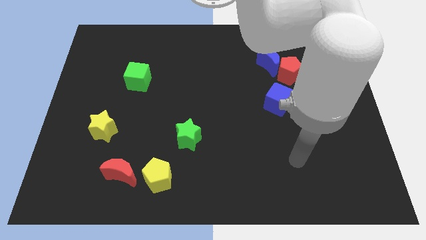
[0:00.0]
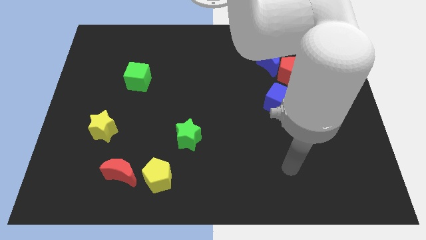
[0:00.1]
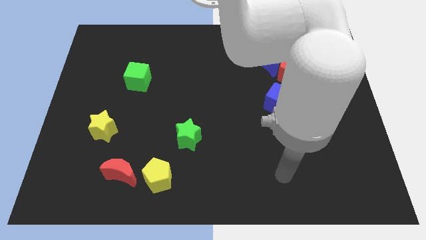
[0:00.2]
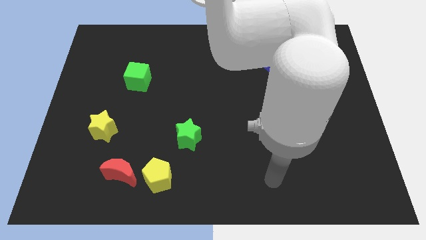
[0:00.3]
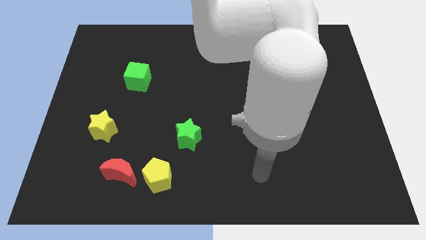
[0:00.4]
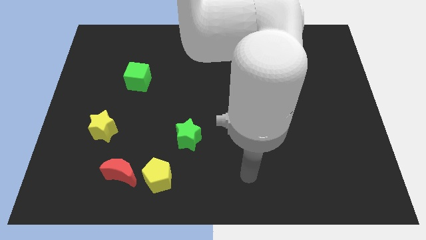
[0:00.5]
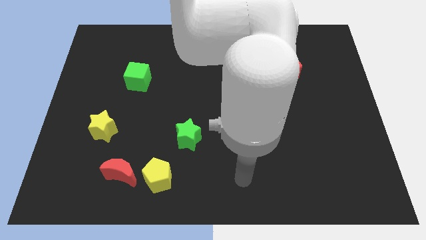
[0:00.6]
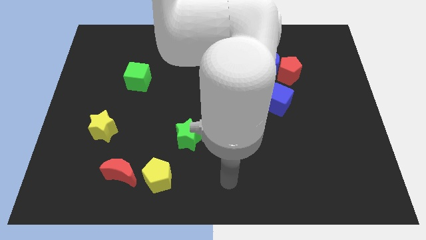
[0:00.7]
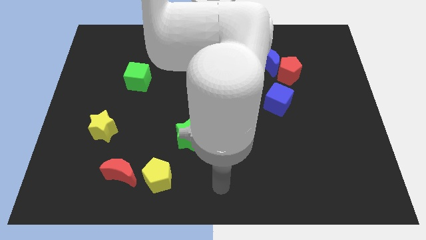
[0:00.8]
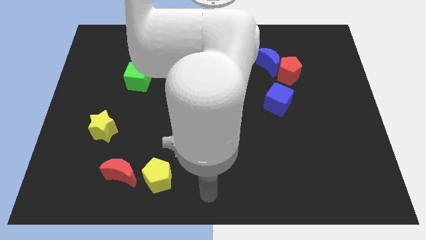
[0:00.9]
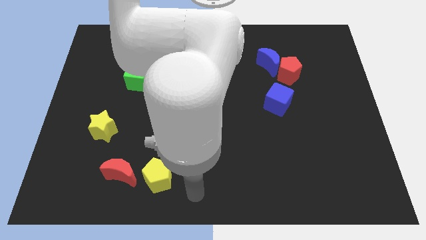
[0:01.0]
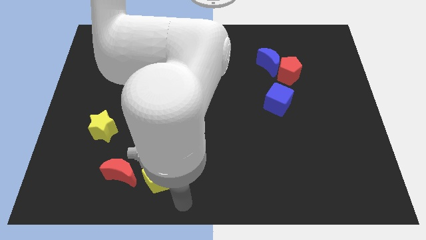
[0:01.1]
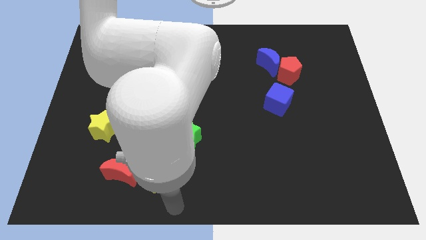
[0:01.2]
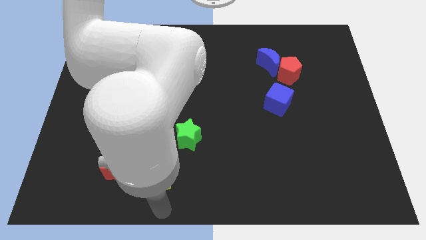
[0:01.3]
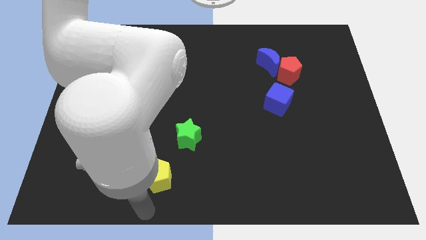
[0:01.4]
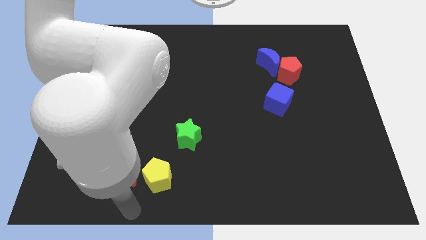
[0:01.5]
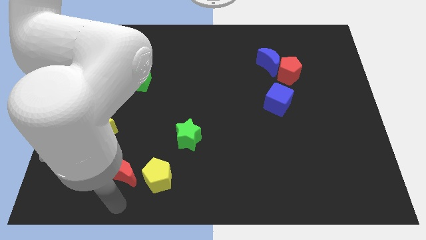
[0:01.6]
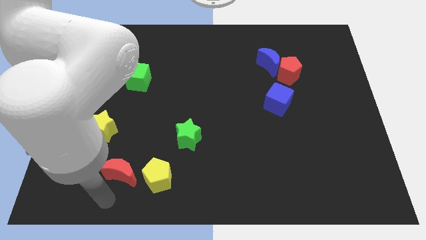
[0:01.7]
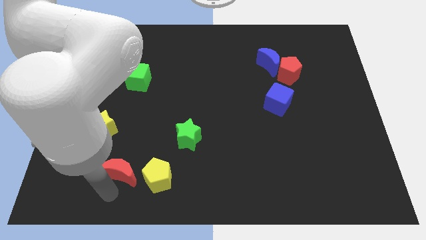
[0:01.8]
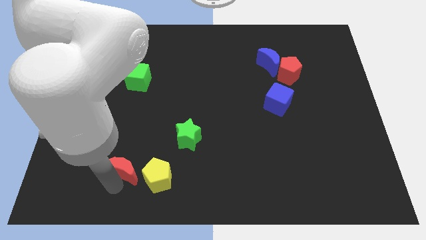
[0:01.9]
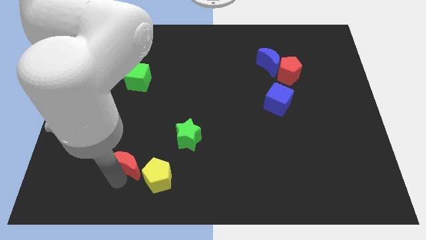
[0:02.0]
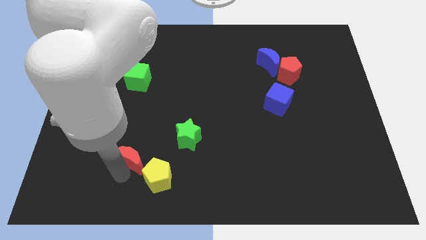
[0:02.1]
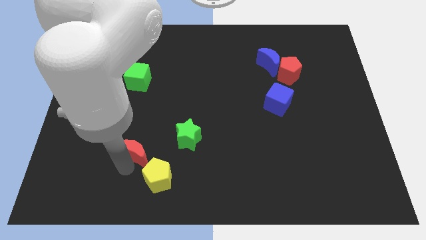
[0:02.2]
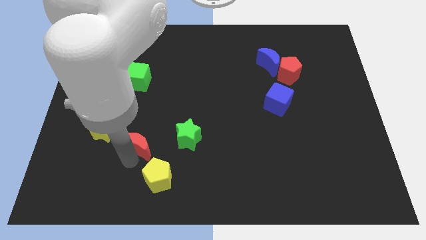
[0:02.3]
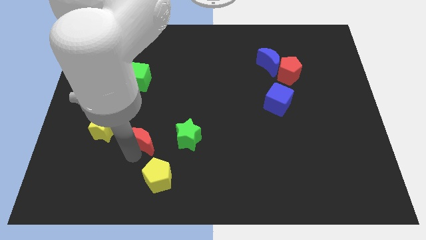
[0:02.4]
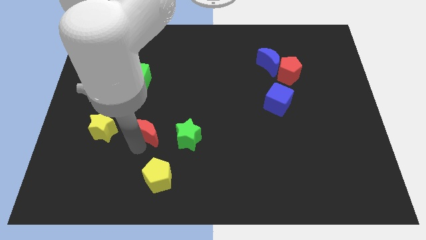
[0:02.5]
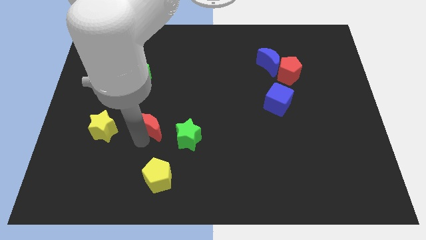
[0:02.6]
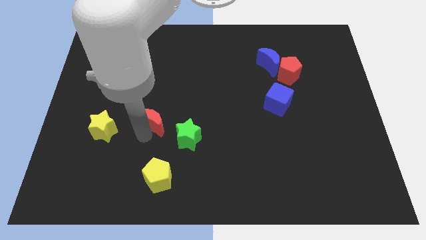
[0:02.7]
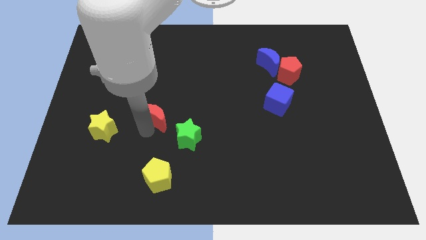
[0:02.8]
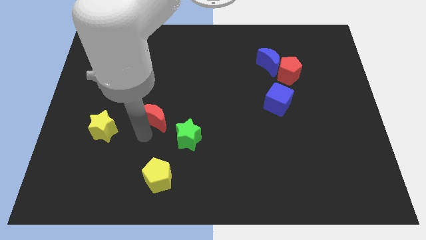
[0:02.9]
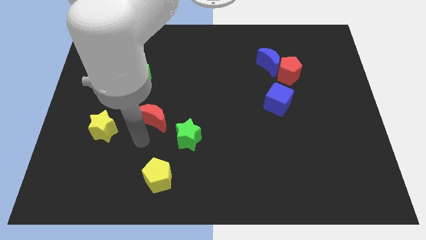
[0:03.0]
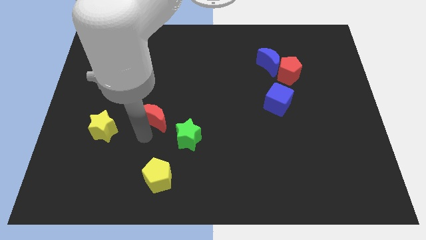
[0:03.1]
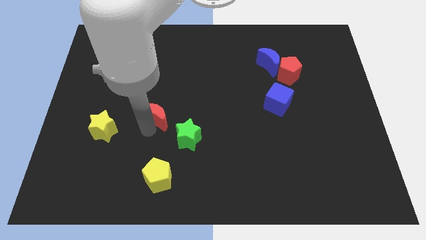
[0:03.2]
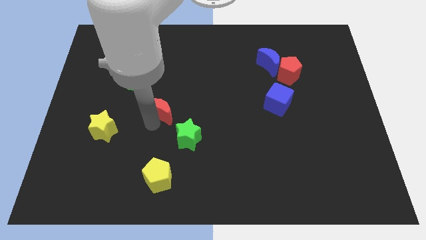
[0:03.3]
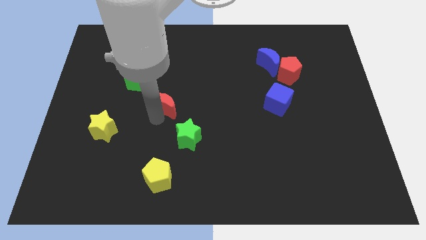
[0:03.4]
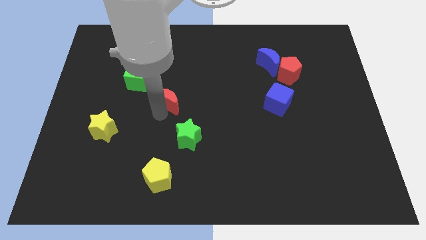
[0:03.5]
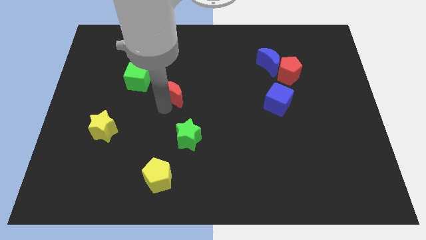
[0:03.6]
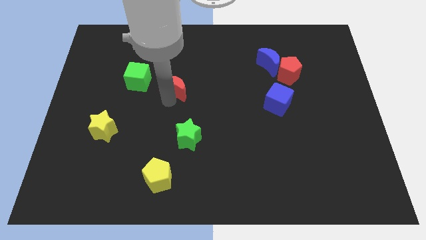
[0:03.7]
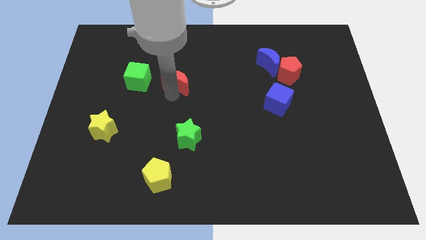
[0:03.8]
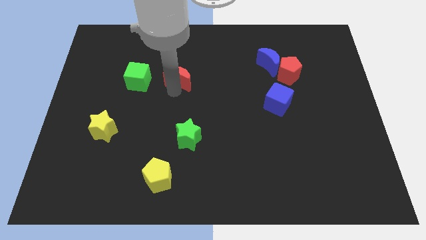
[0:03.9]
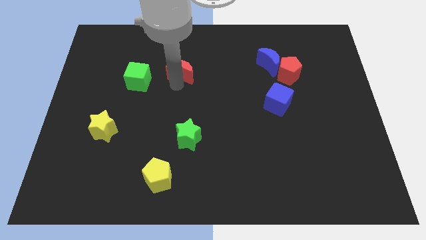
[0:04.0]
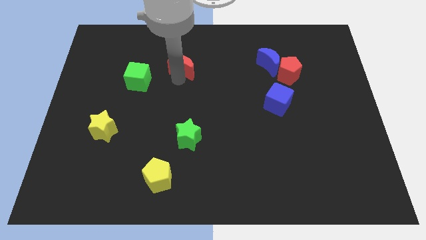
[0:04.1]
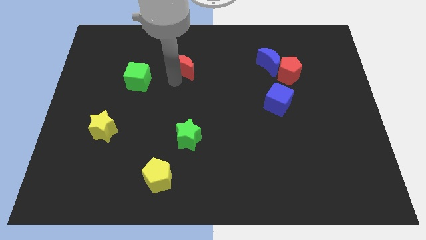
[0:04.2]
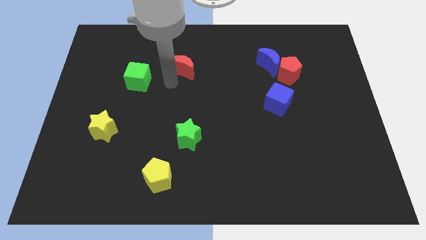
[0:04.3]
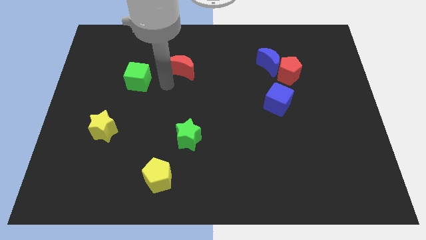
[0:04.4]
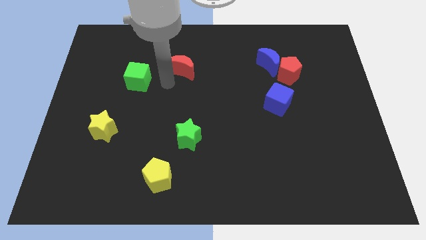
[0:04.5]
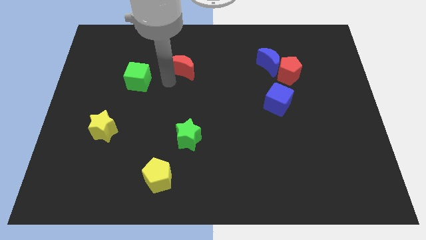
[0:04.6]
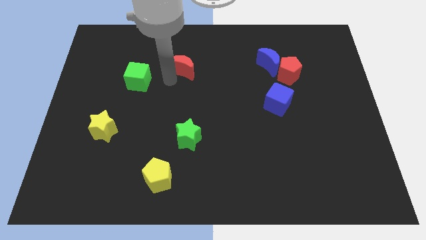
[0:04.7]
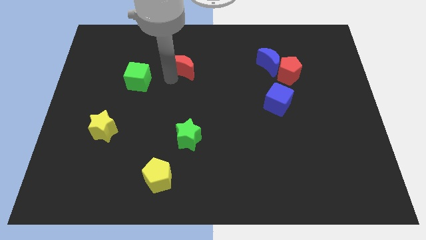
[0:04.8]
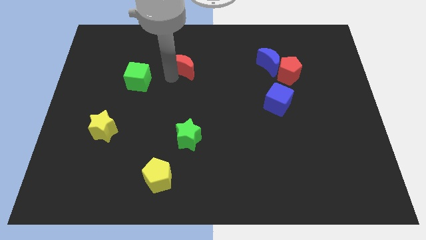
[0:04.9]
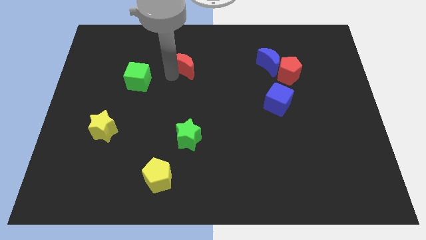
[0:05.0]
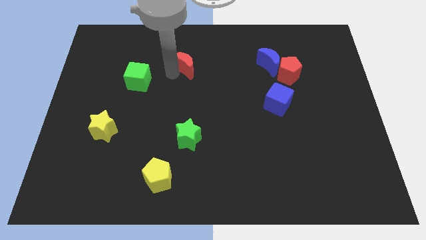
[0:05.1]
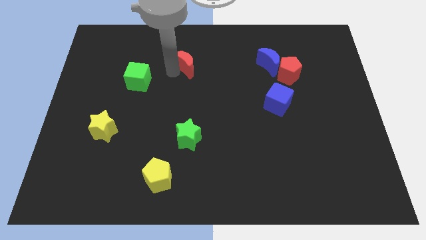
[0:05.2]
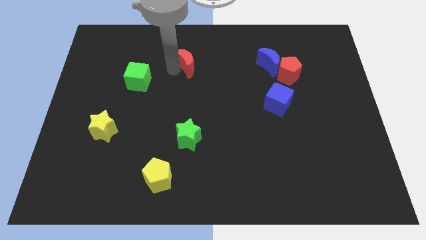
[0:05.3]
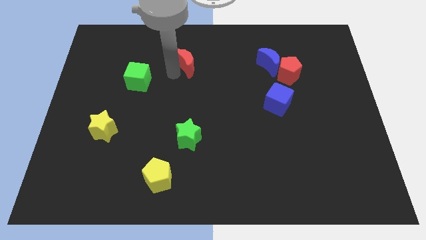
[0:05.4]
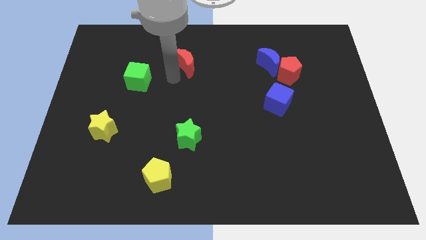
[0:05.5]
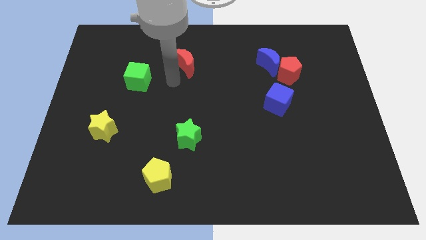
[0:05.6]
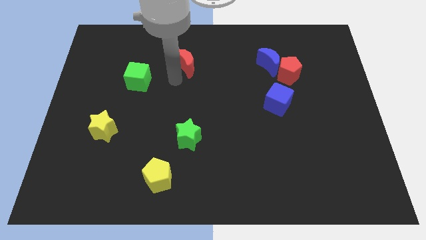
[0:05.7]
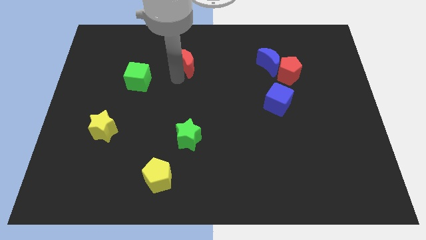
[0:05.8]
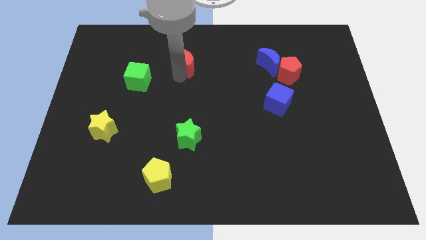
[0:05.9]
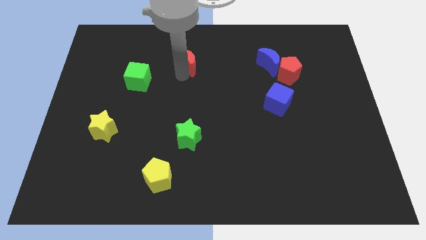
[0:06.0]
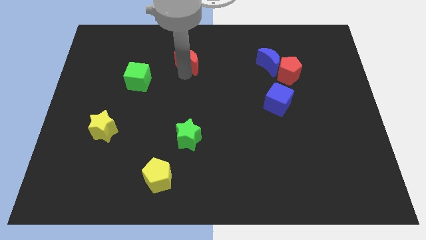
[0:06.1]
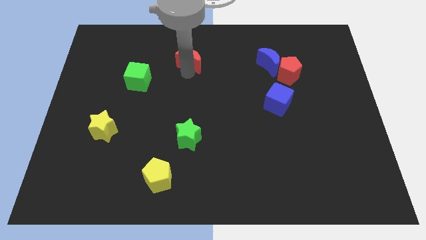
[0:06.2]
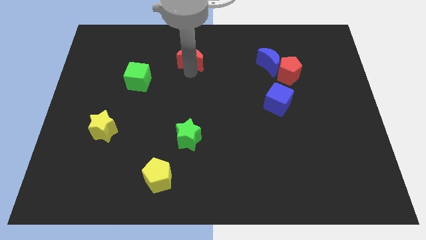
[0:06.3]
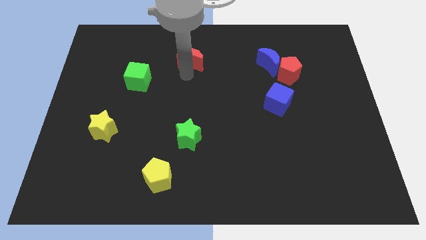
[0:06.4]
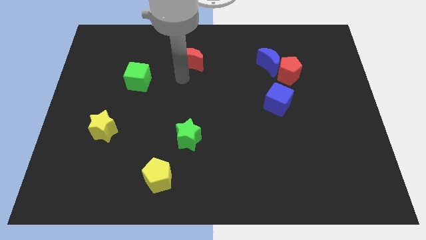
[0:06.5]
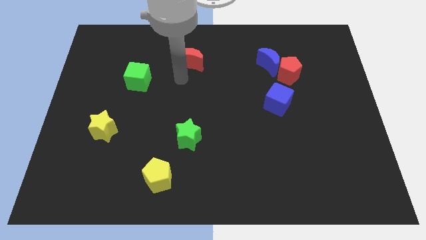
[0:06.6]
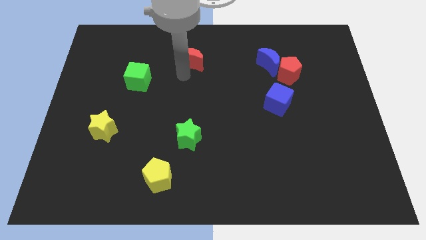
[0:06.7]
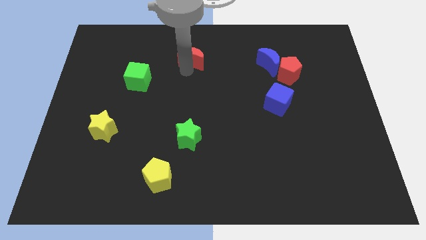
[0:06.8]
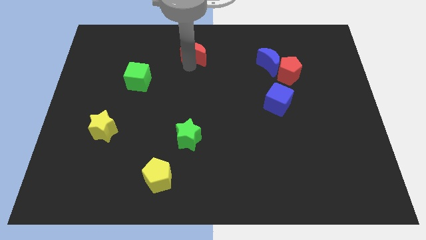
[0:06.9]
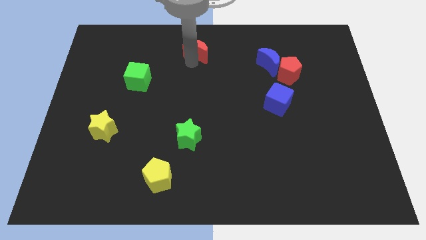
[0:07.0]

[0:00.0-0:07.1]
slide the red moon to the towards your base
